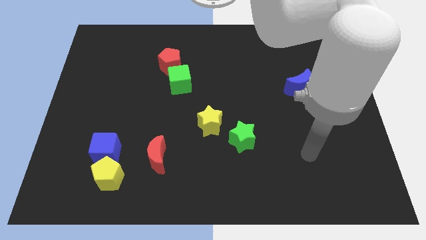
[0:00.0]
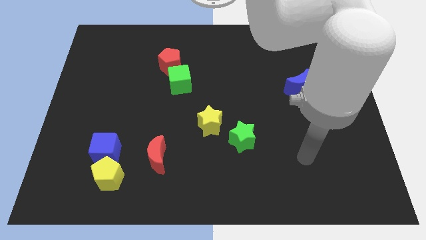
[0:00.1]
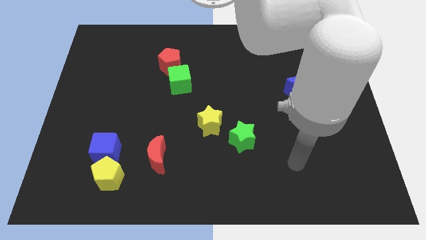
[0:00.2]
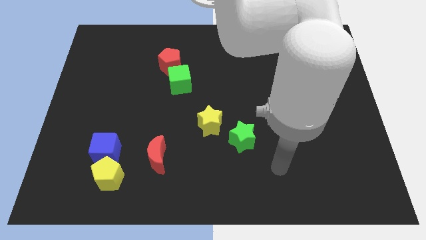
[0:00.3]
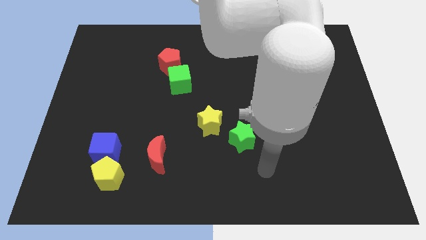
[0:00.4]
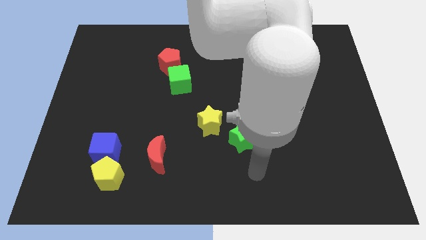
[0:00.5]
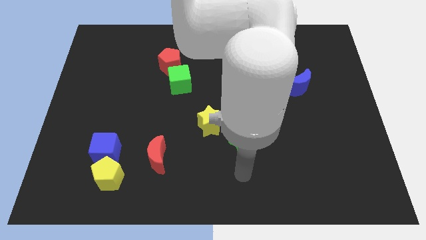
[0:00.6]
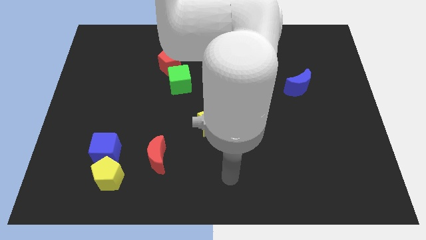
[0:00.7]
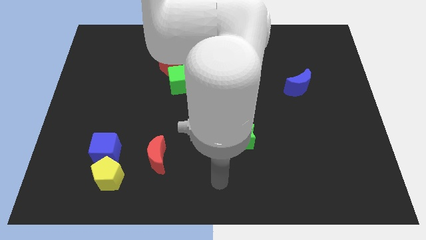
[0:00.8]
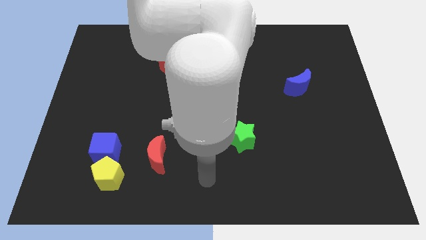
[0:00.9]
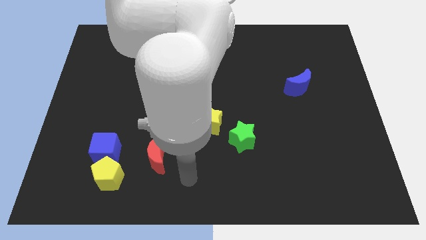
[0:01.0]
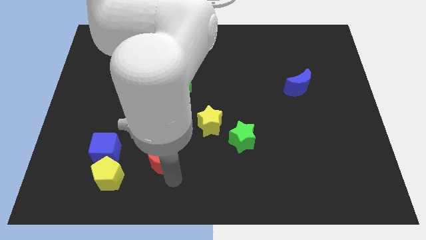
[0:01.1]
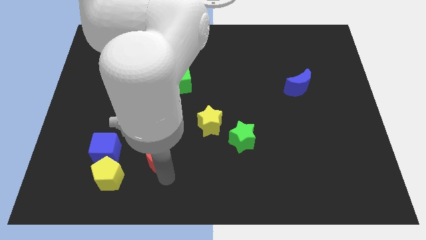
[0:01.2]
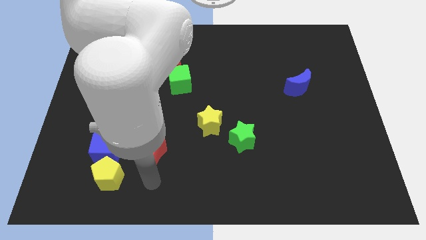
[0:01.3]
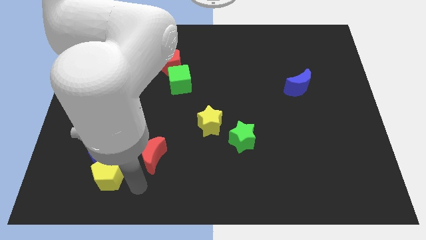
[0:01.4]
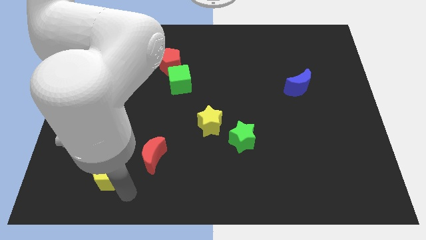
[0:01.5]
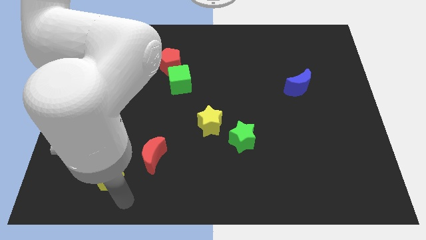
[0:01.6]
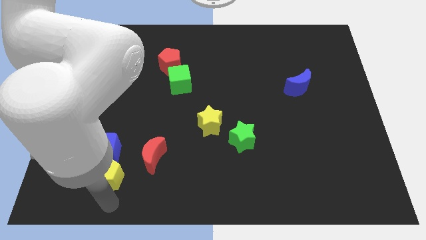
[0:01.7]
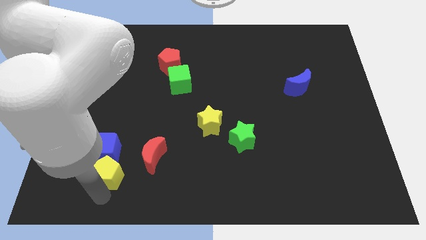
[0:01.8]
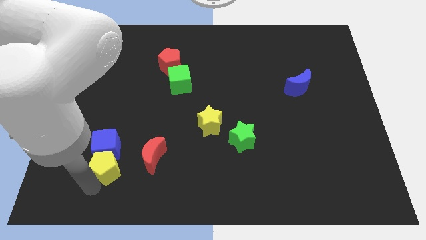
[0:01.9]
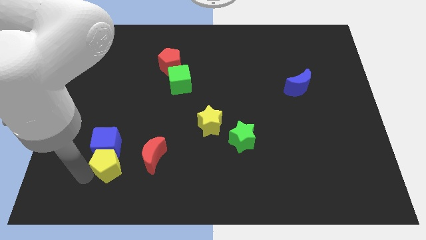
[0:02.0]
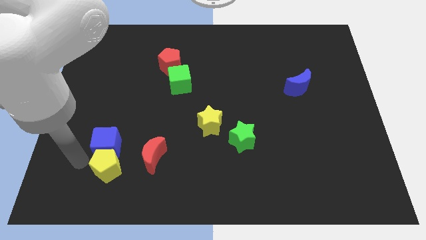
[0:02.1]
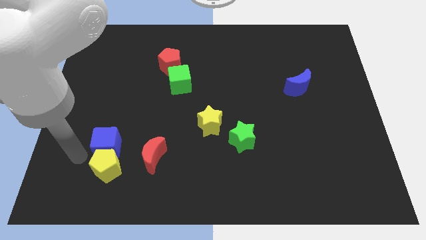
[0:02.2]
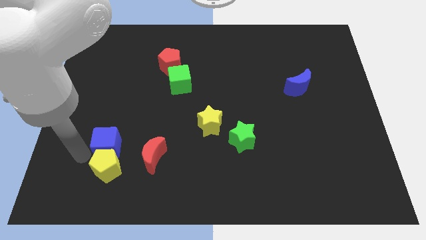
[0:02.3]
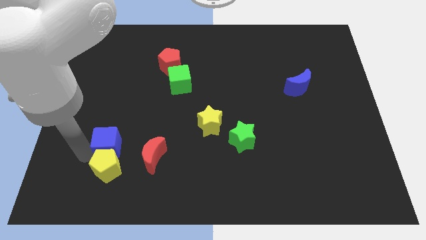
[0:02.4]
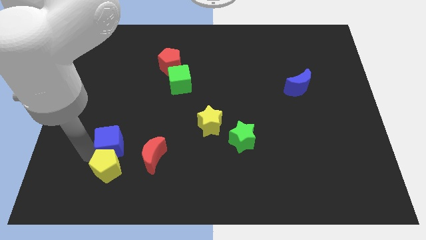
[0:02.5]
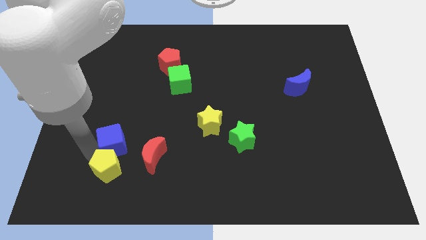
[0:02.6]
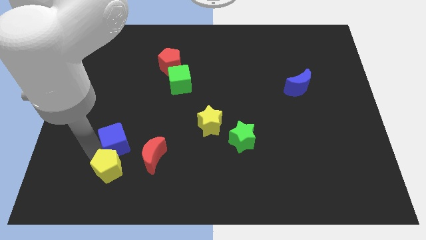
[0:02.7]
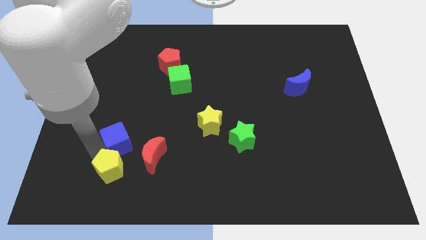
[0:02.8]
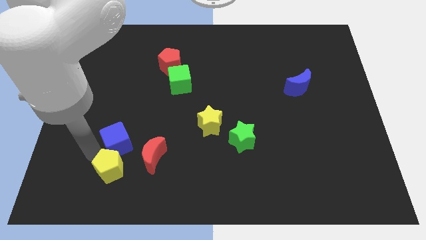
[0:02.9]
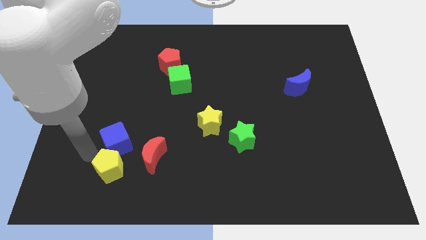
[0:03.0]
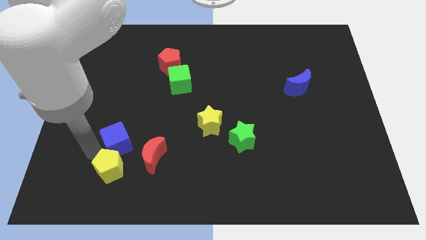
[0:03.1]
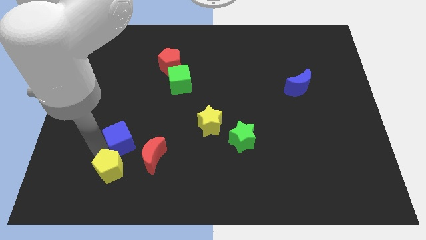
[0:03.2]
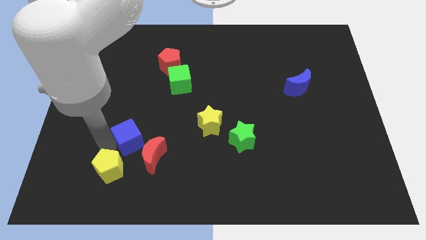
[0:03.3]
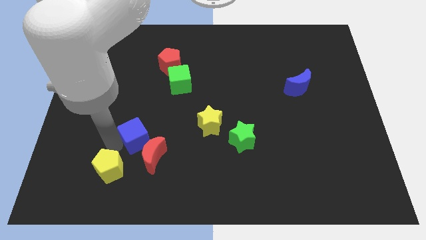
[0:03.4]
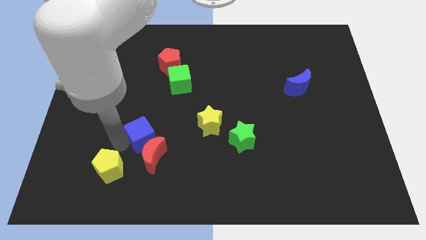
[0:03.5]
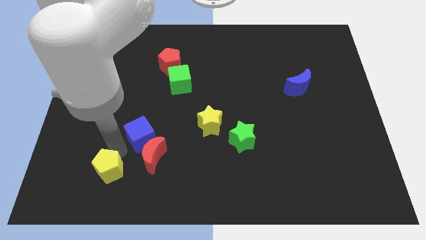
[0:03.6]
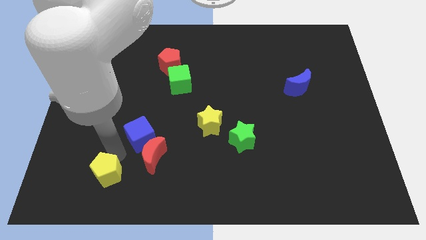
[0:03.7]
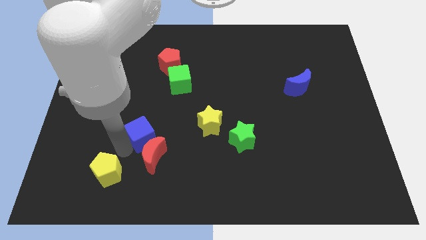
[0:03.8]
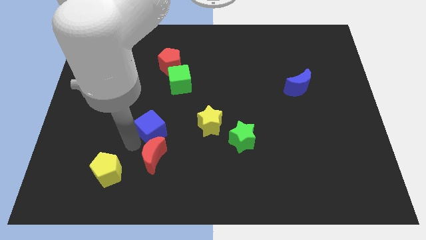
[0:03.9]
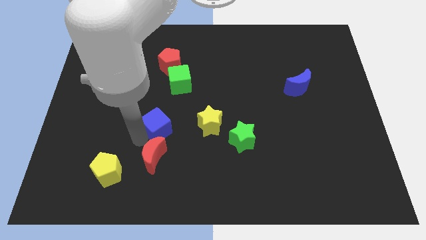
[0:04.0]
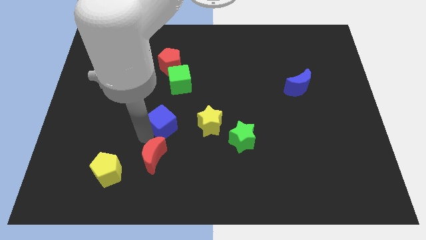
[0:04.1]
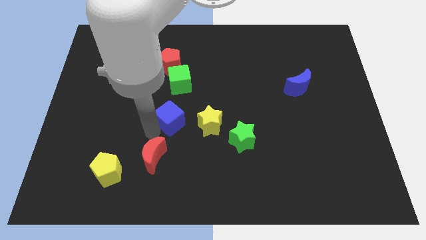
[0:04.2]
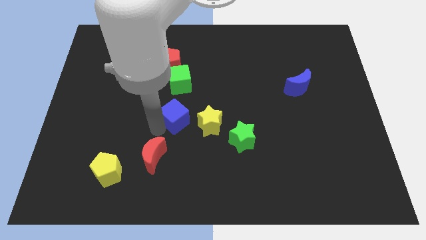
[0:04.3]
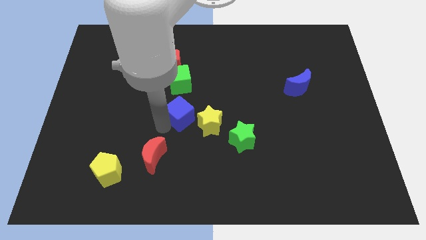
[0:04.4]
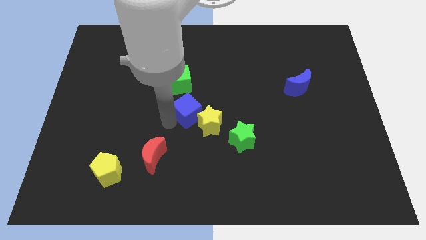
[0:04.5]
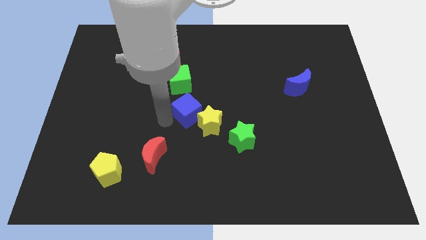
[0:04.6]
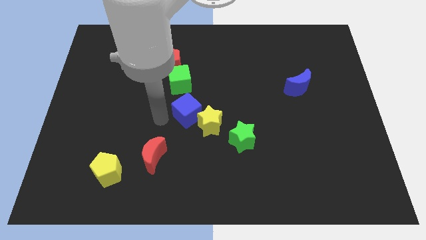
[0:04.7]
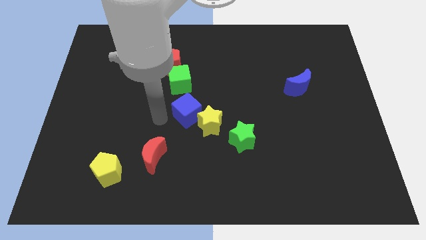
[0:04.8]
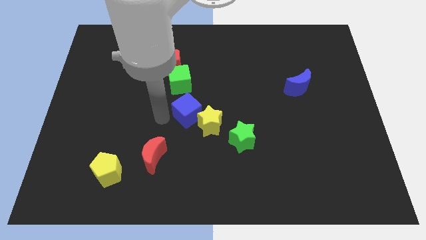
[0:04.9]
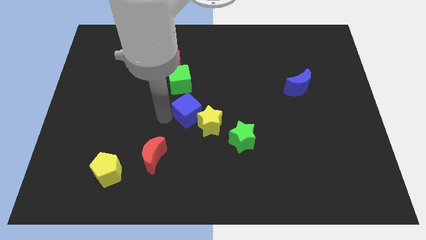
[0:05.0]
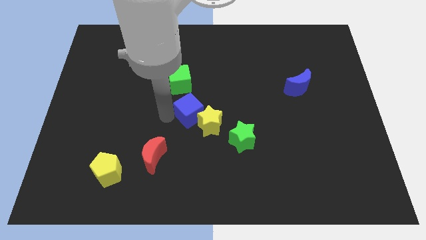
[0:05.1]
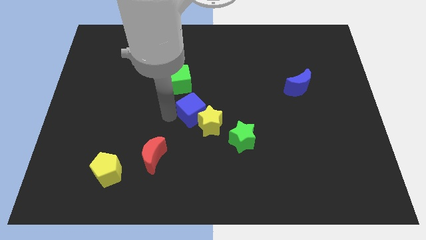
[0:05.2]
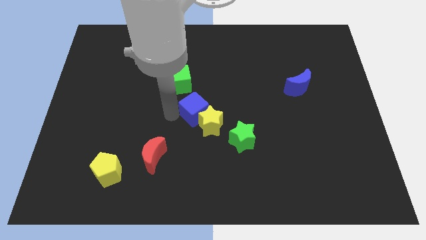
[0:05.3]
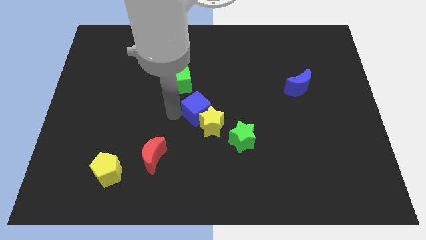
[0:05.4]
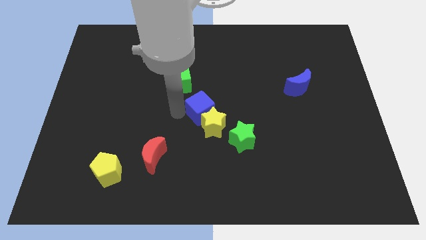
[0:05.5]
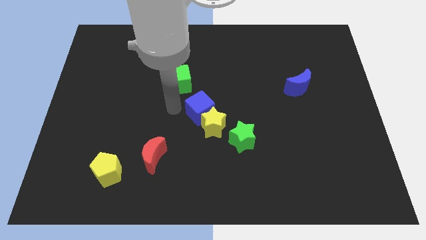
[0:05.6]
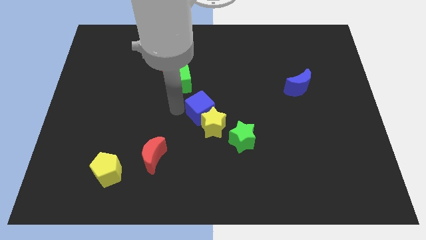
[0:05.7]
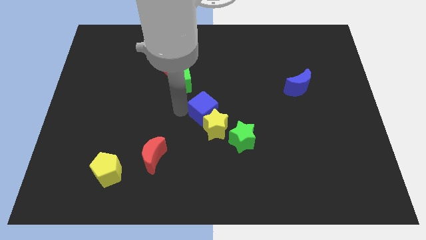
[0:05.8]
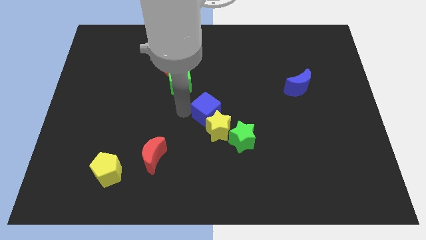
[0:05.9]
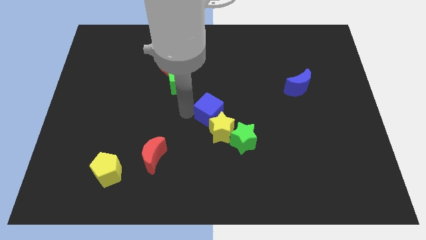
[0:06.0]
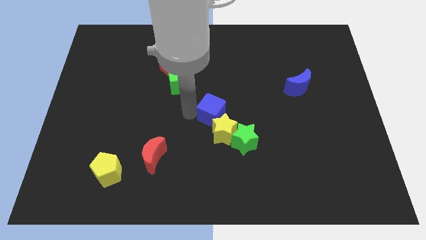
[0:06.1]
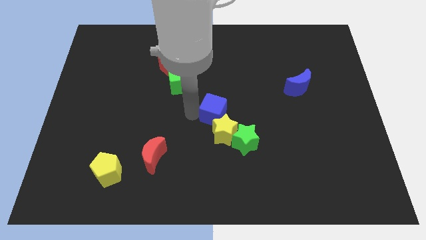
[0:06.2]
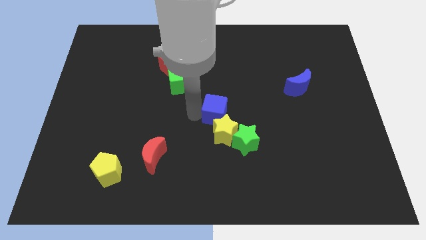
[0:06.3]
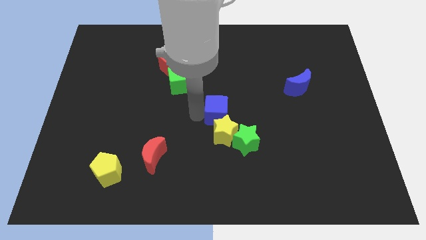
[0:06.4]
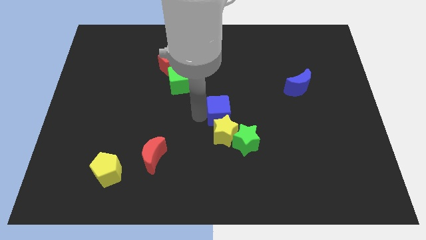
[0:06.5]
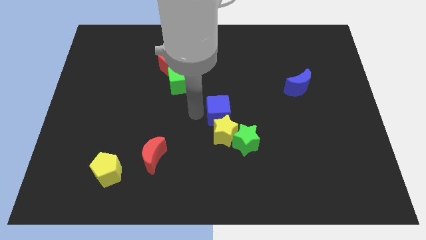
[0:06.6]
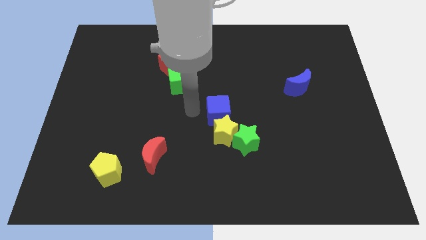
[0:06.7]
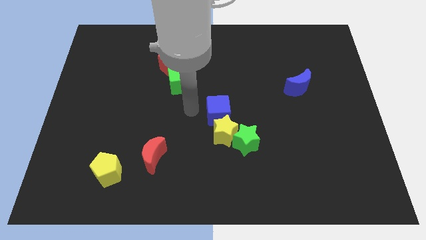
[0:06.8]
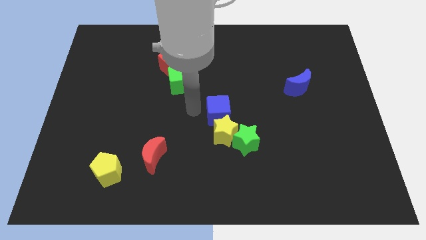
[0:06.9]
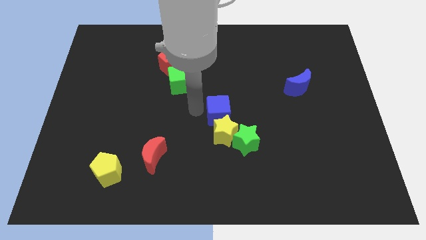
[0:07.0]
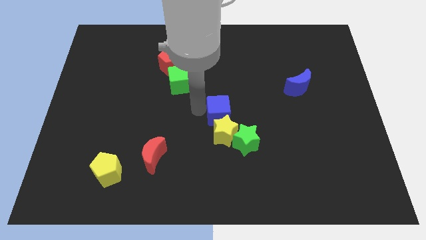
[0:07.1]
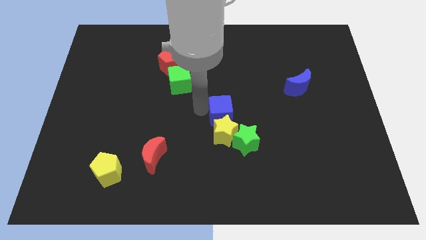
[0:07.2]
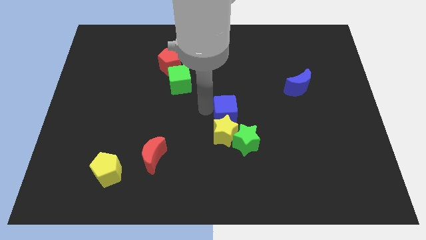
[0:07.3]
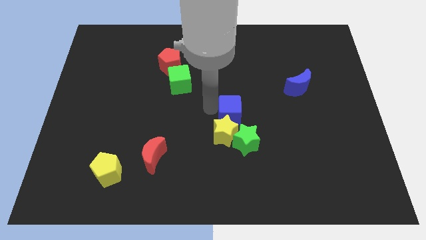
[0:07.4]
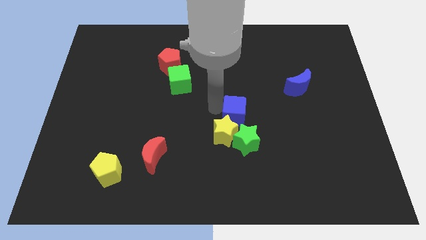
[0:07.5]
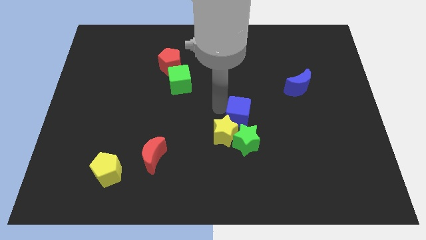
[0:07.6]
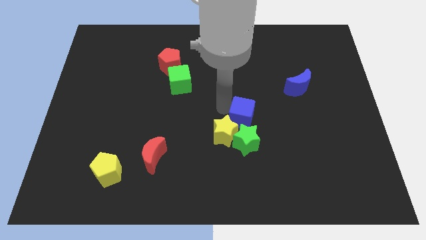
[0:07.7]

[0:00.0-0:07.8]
put the blue cube right of the yellow star

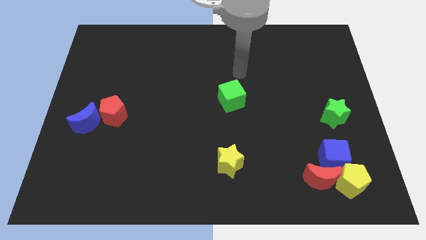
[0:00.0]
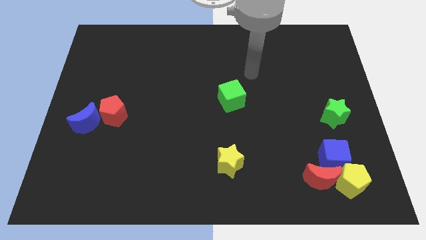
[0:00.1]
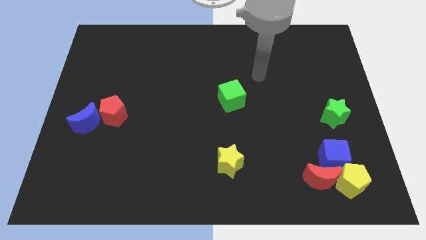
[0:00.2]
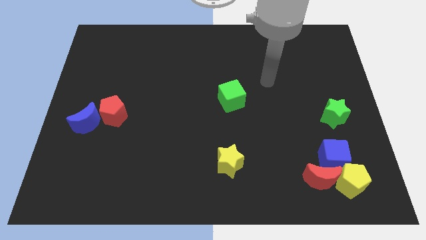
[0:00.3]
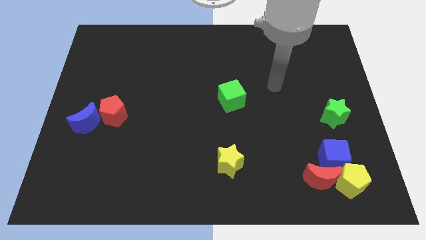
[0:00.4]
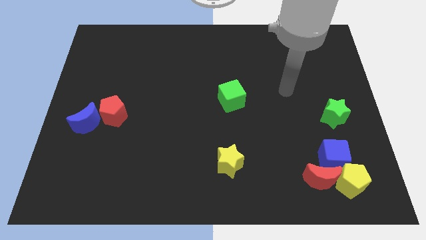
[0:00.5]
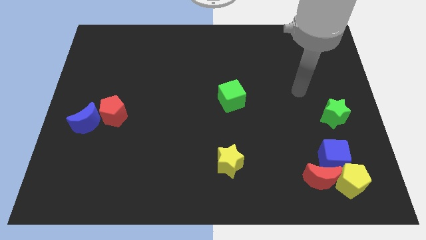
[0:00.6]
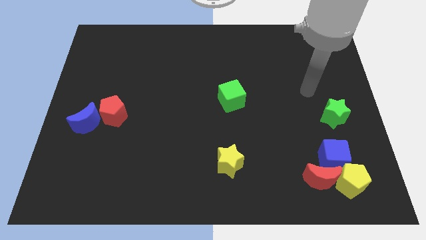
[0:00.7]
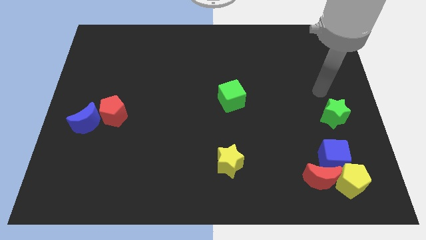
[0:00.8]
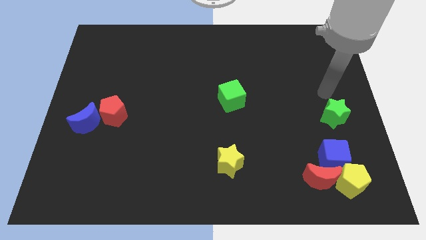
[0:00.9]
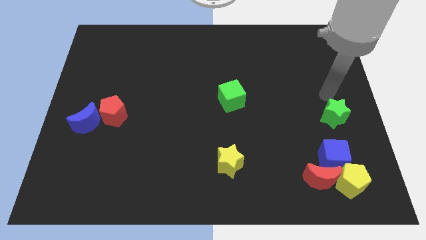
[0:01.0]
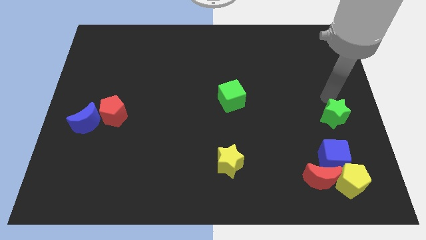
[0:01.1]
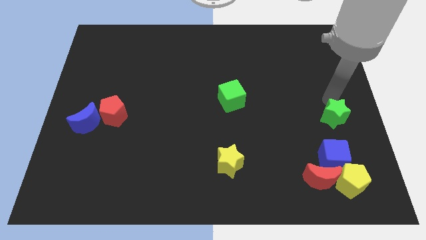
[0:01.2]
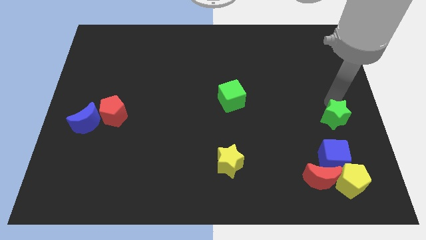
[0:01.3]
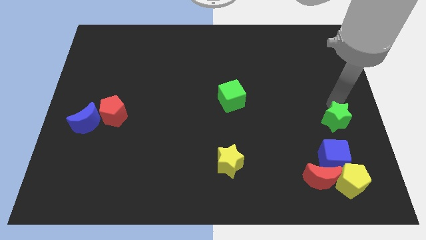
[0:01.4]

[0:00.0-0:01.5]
move the green star to the top side of the yellow pentagon
